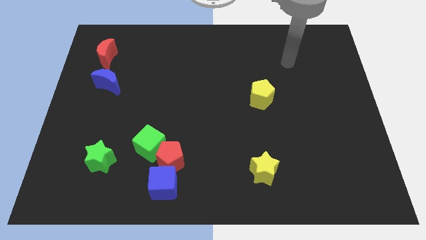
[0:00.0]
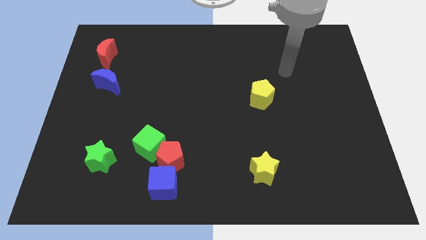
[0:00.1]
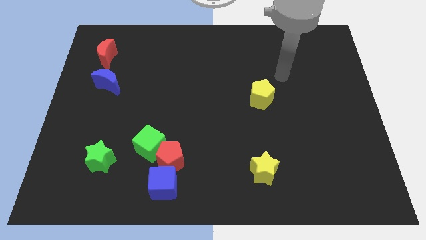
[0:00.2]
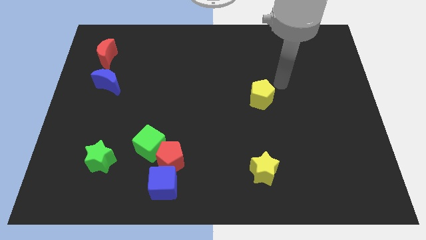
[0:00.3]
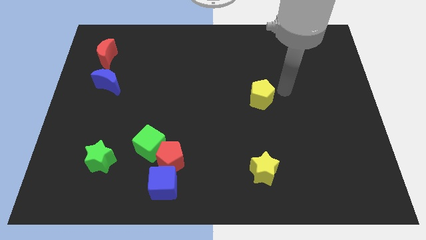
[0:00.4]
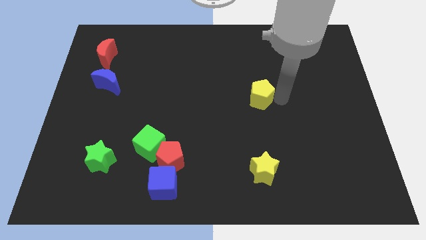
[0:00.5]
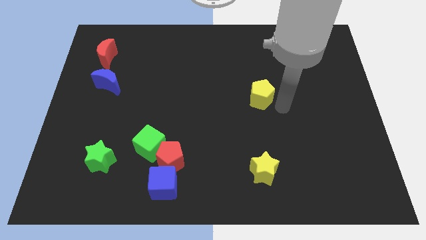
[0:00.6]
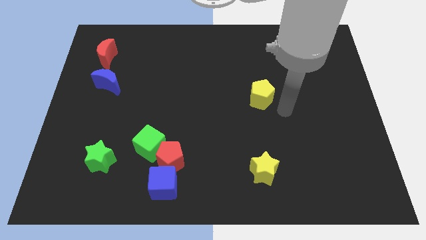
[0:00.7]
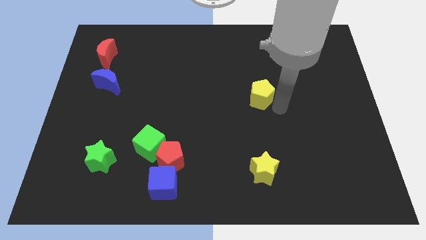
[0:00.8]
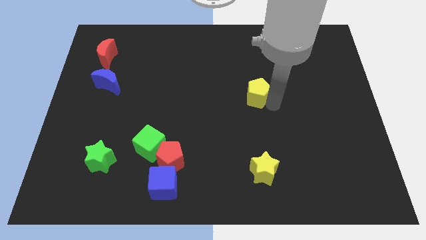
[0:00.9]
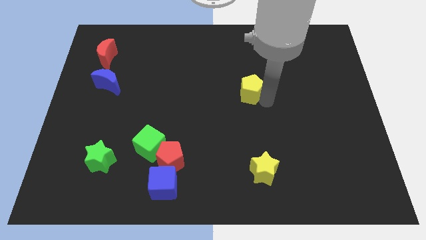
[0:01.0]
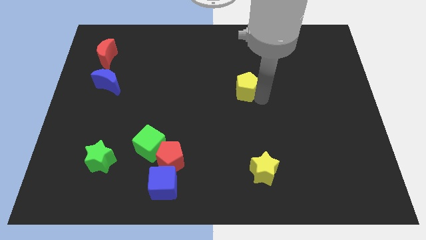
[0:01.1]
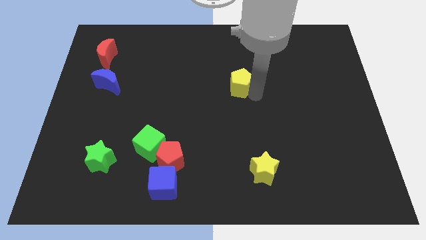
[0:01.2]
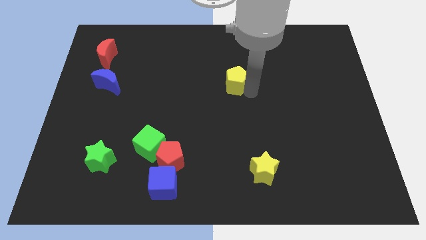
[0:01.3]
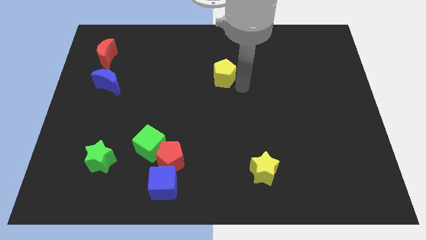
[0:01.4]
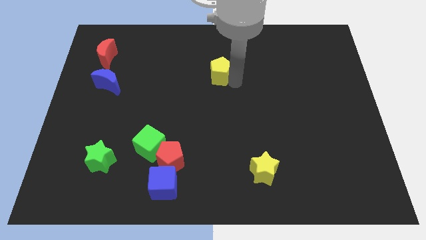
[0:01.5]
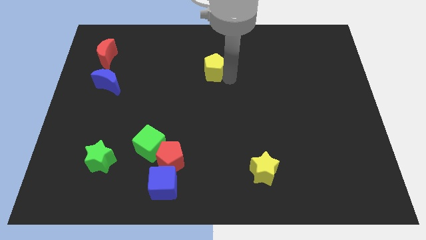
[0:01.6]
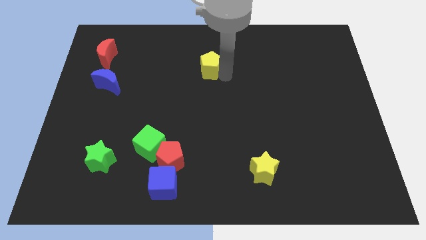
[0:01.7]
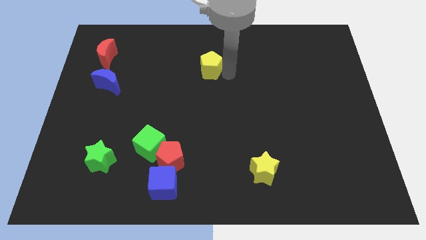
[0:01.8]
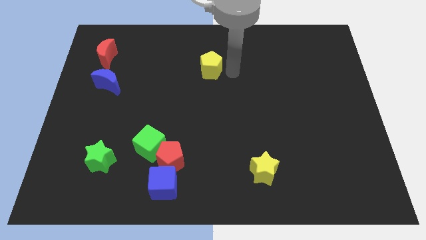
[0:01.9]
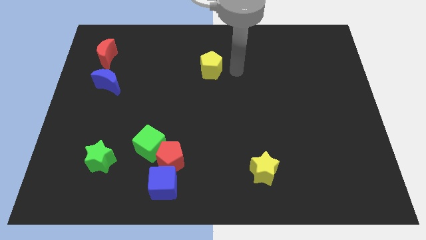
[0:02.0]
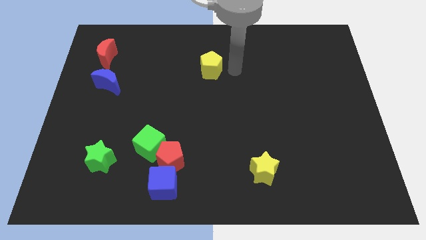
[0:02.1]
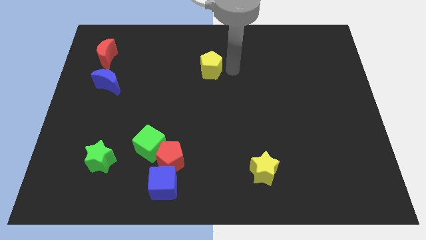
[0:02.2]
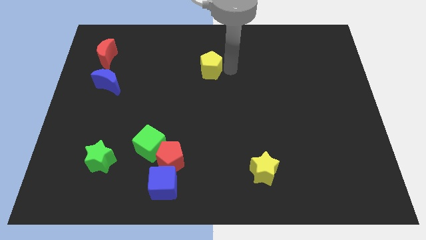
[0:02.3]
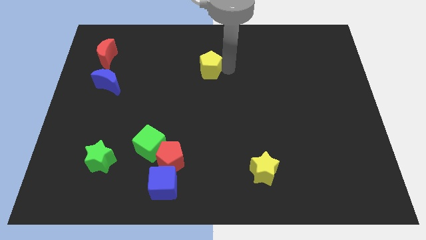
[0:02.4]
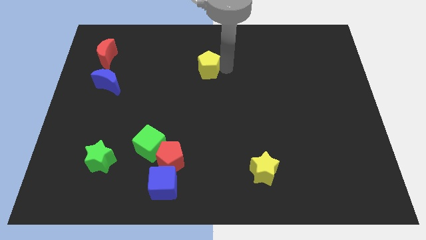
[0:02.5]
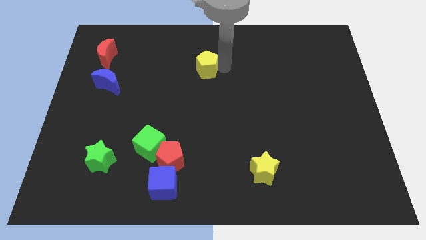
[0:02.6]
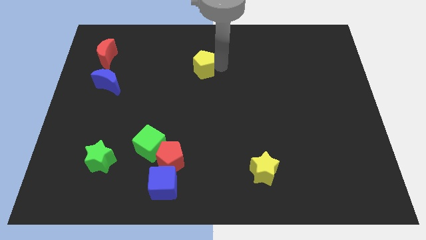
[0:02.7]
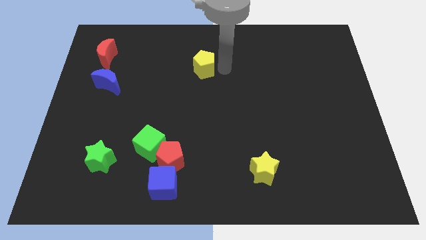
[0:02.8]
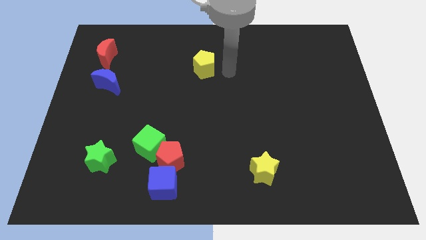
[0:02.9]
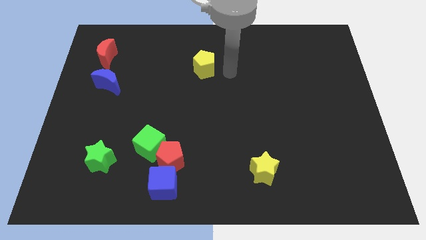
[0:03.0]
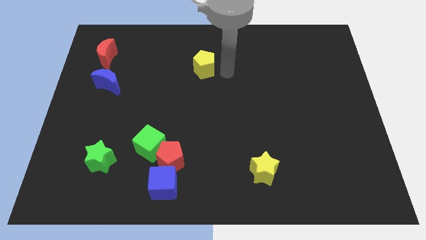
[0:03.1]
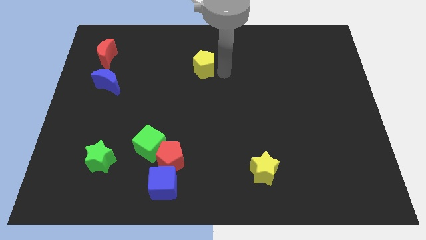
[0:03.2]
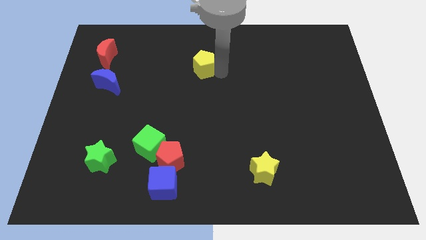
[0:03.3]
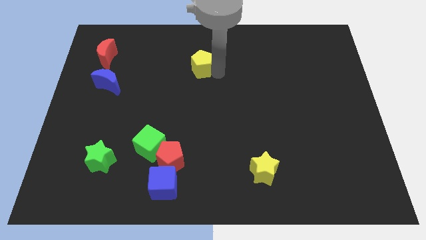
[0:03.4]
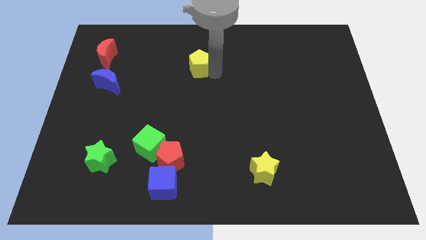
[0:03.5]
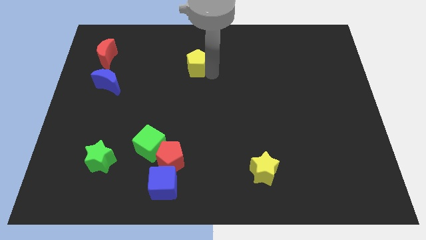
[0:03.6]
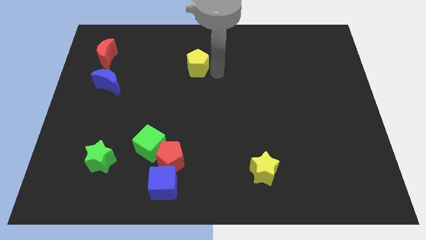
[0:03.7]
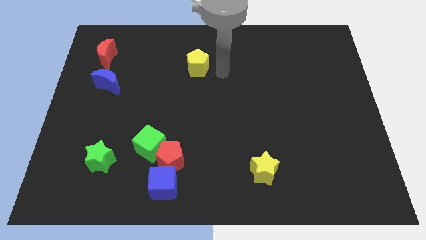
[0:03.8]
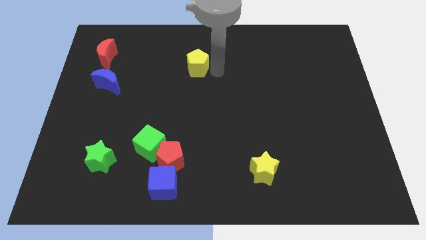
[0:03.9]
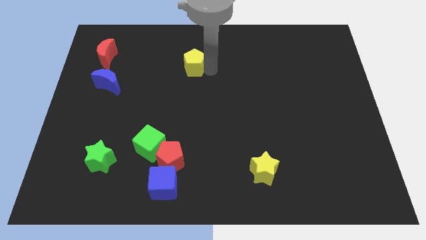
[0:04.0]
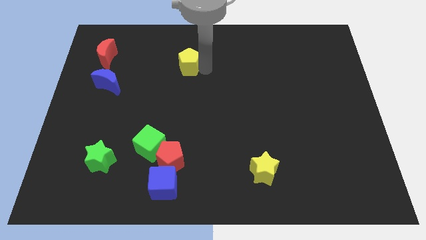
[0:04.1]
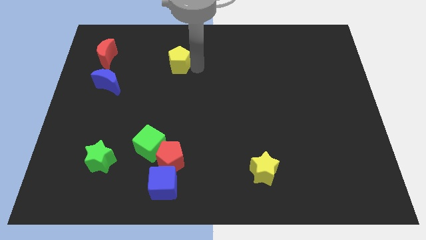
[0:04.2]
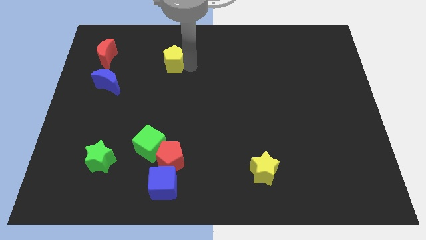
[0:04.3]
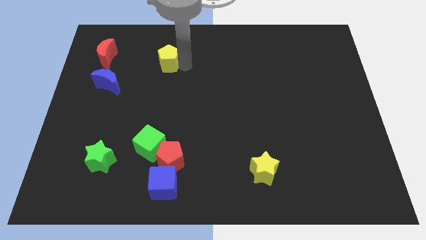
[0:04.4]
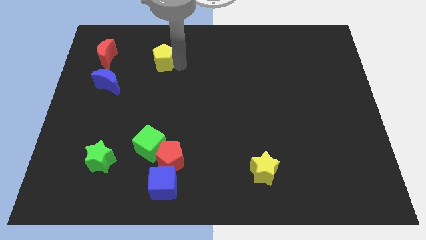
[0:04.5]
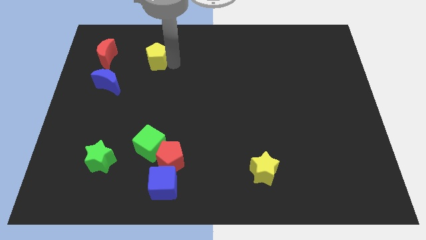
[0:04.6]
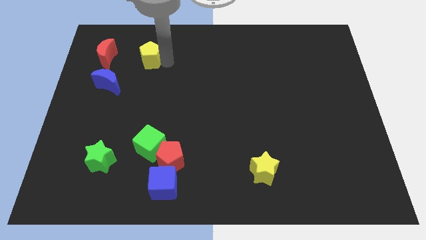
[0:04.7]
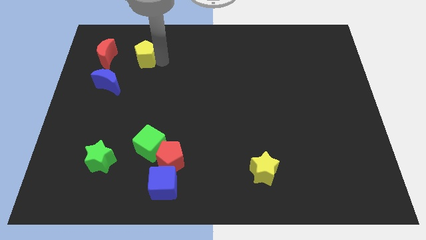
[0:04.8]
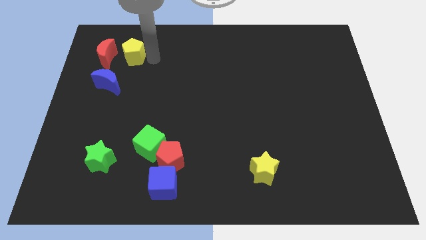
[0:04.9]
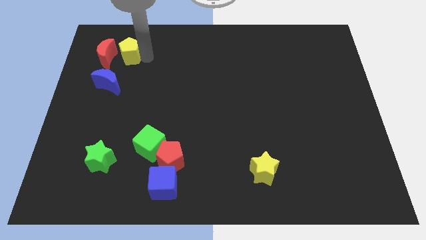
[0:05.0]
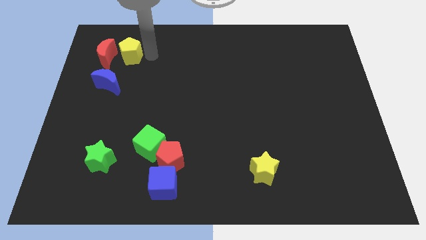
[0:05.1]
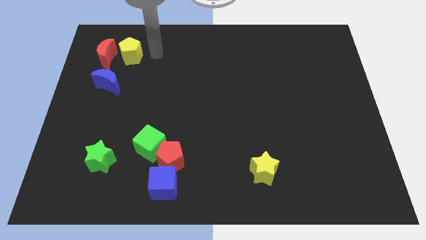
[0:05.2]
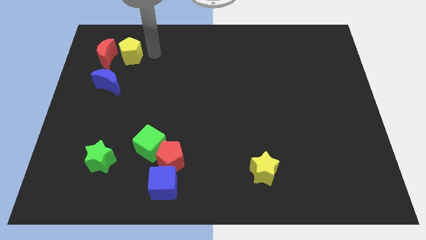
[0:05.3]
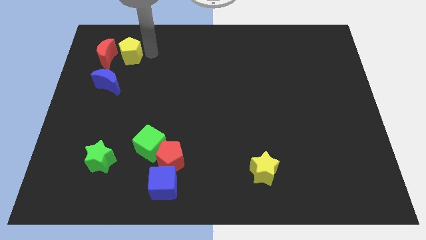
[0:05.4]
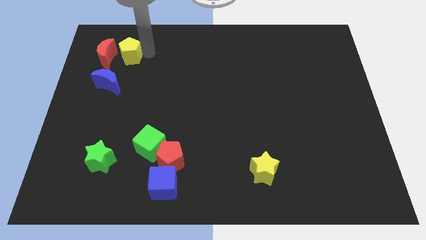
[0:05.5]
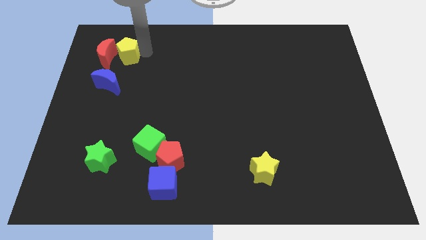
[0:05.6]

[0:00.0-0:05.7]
put the yellow pentagon close to the red moon

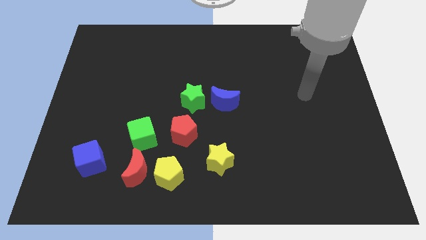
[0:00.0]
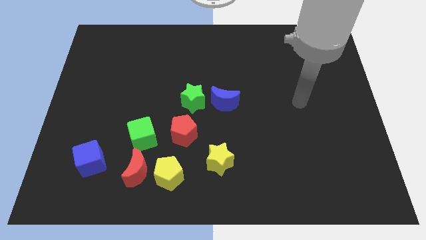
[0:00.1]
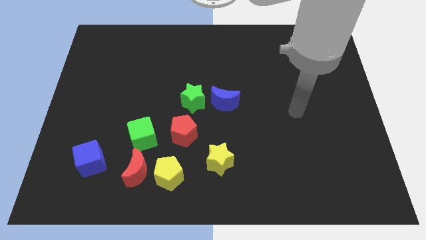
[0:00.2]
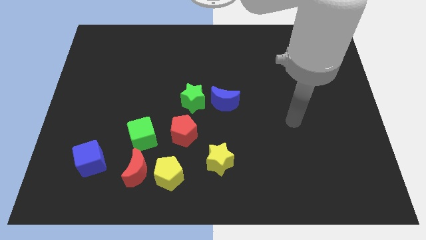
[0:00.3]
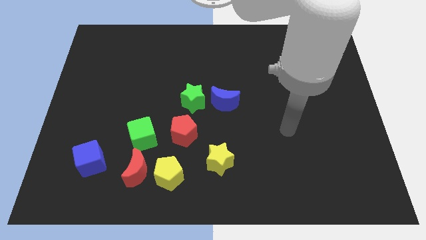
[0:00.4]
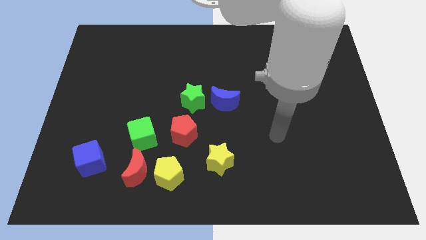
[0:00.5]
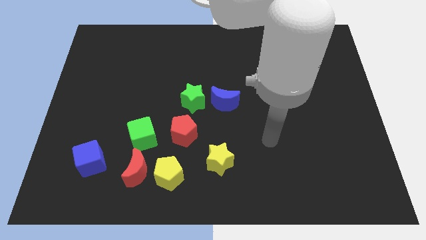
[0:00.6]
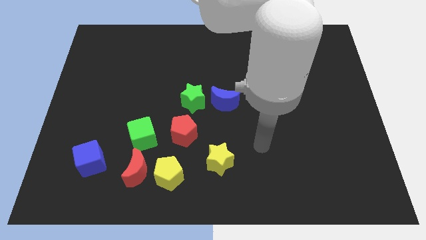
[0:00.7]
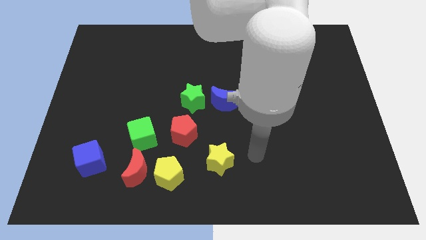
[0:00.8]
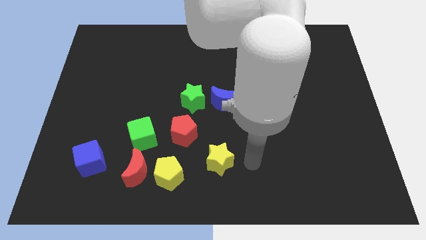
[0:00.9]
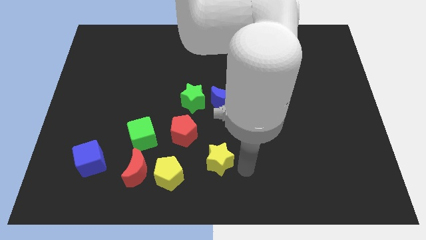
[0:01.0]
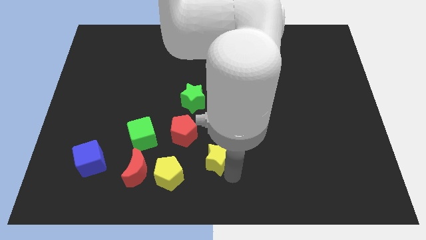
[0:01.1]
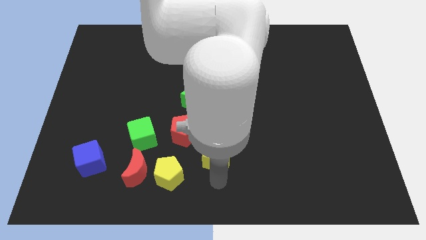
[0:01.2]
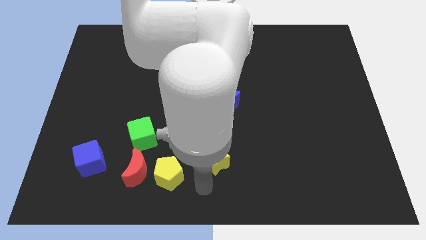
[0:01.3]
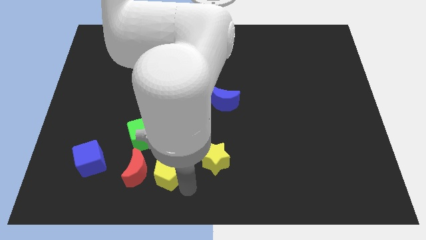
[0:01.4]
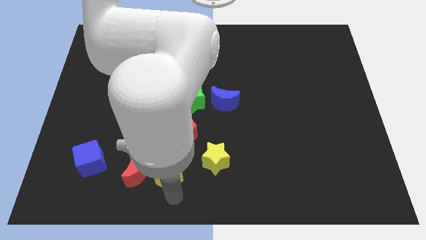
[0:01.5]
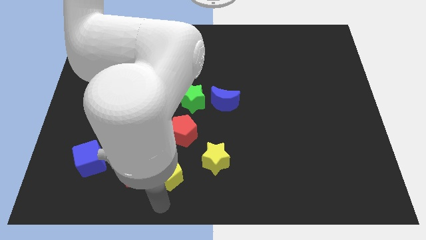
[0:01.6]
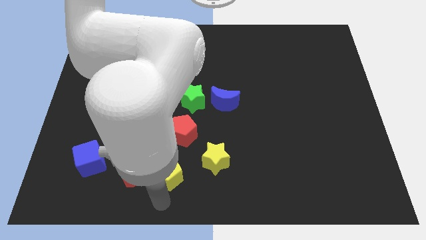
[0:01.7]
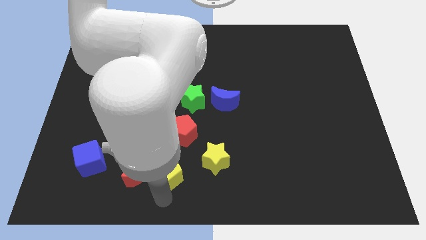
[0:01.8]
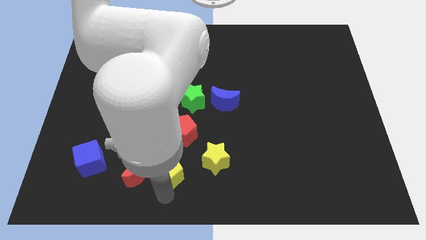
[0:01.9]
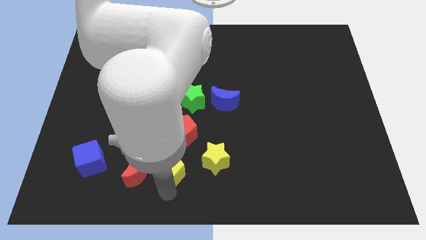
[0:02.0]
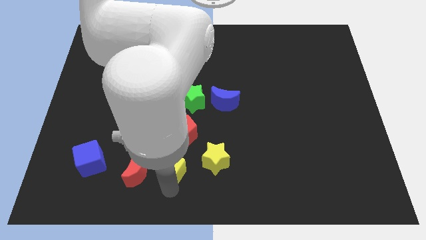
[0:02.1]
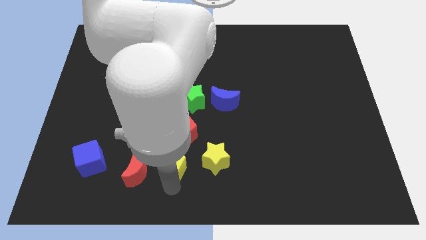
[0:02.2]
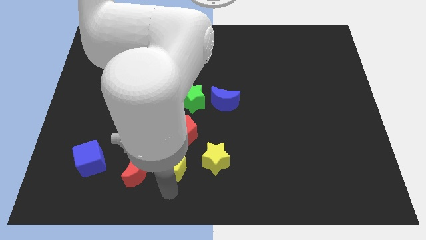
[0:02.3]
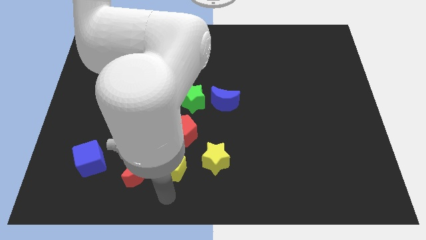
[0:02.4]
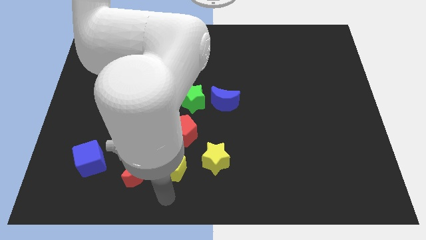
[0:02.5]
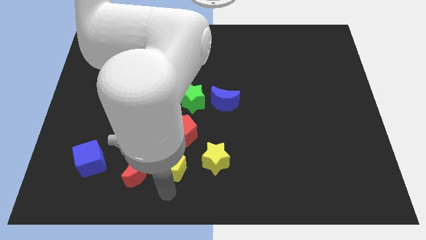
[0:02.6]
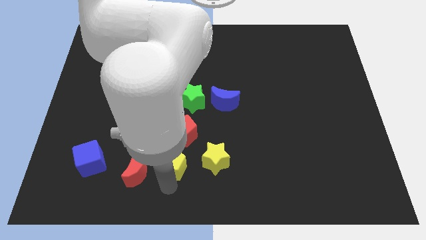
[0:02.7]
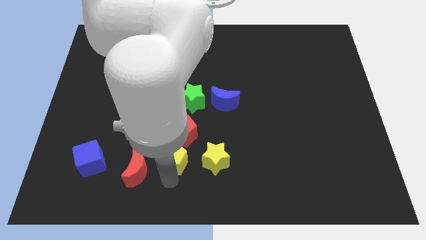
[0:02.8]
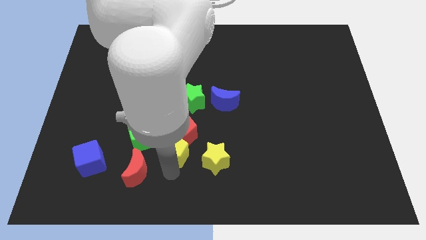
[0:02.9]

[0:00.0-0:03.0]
push the yellow pentagon next to the red pentagon
